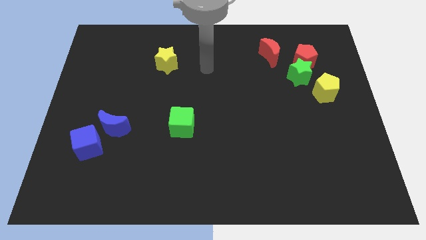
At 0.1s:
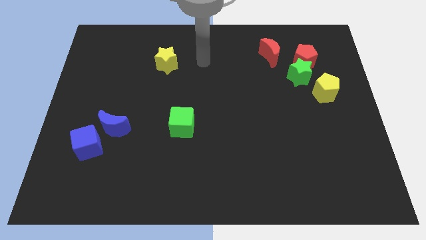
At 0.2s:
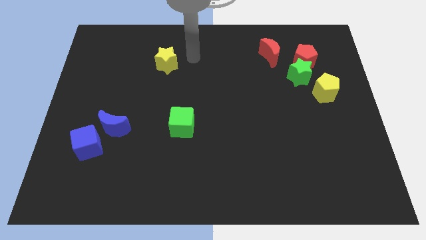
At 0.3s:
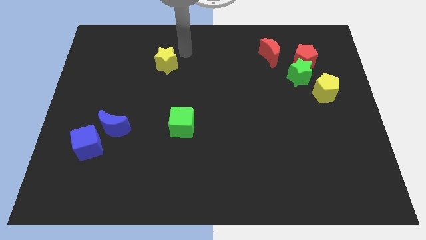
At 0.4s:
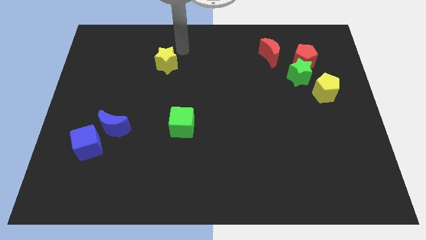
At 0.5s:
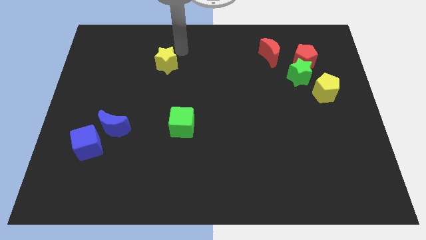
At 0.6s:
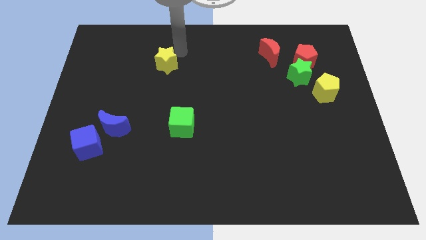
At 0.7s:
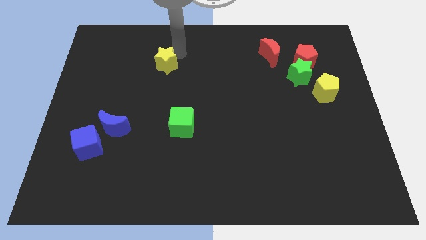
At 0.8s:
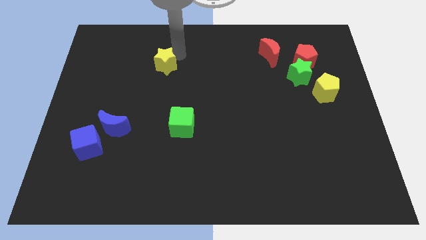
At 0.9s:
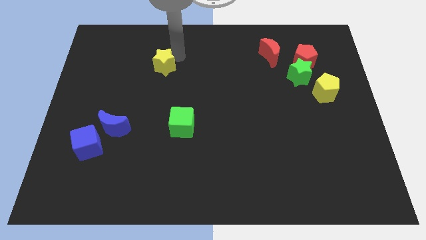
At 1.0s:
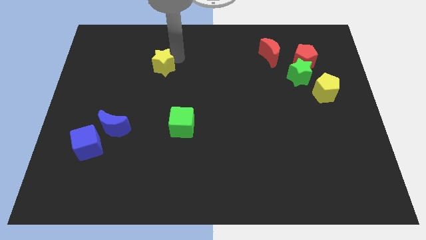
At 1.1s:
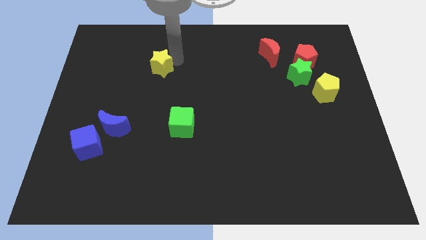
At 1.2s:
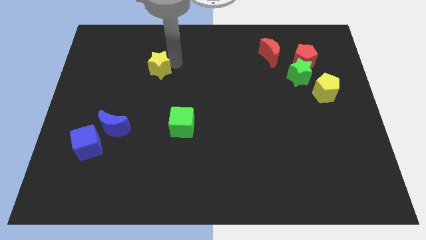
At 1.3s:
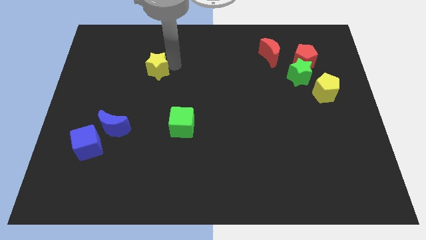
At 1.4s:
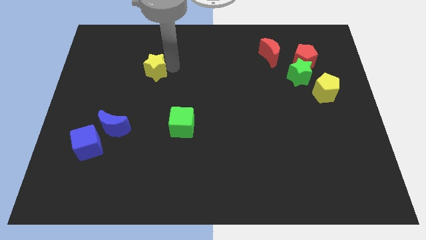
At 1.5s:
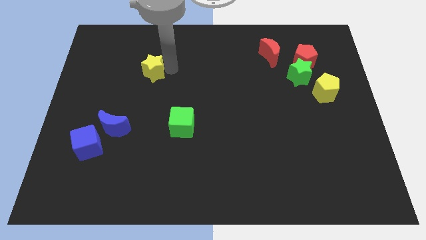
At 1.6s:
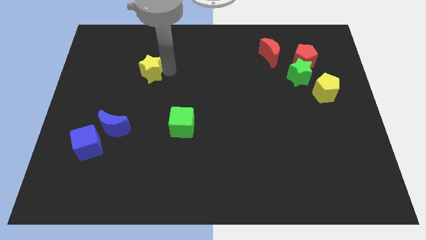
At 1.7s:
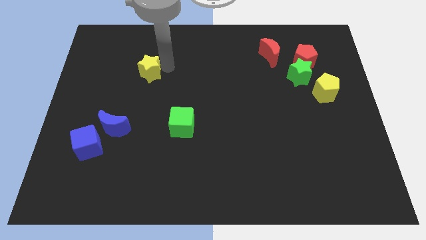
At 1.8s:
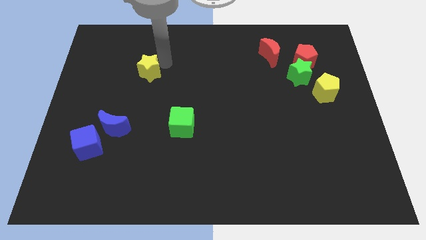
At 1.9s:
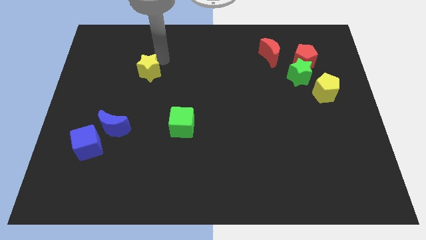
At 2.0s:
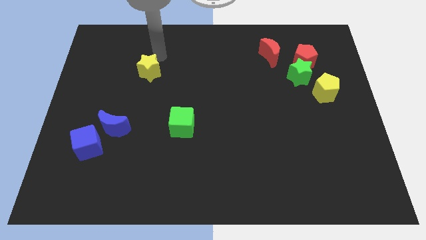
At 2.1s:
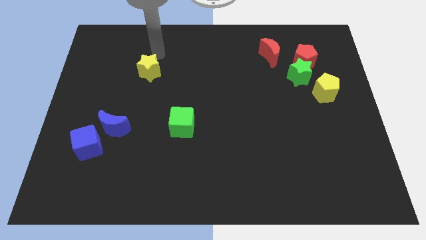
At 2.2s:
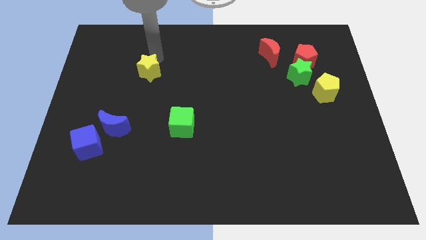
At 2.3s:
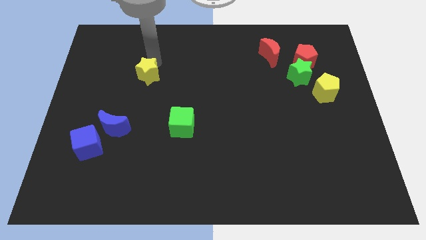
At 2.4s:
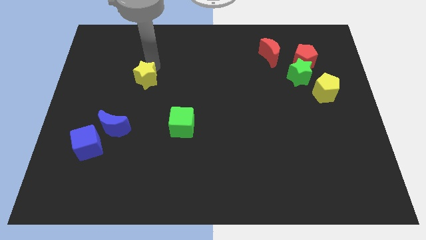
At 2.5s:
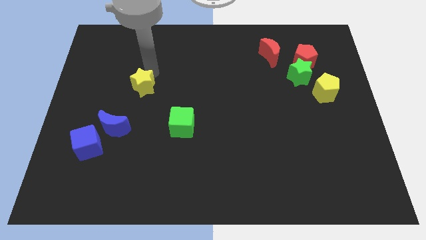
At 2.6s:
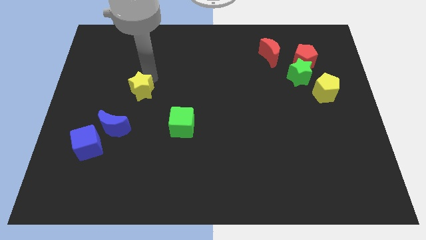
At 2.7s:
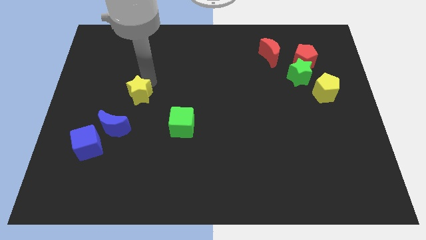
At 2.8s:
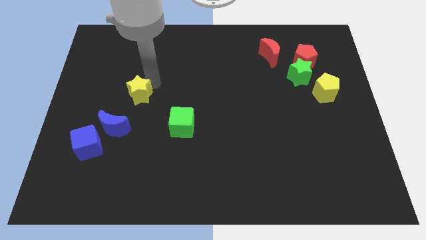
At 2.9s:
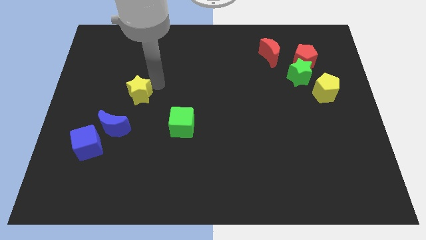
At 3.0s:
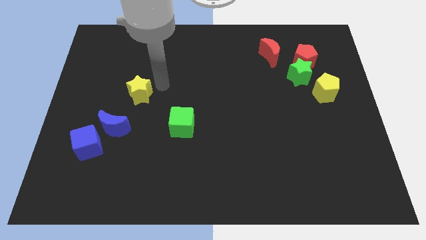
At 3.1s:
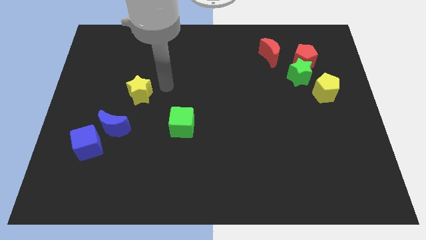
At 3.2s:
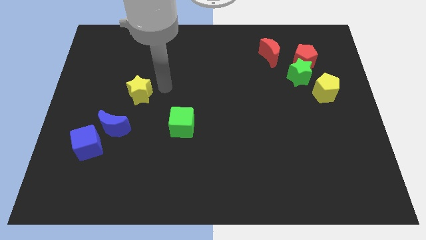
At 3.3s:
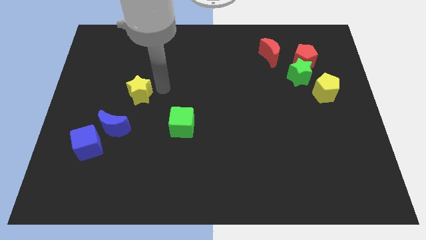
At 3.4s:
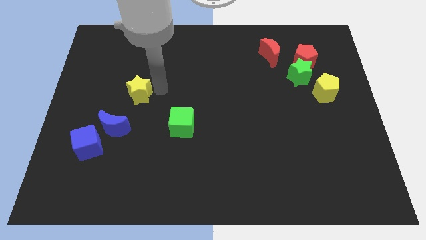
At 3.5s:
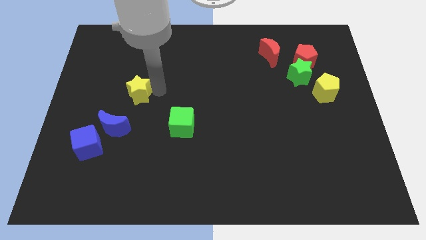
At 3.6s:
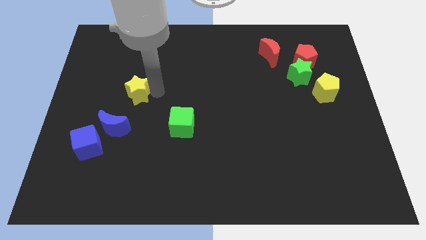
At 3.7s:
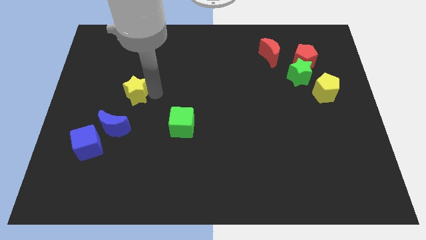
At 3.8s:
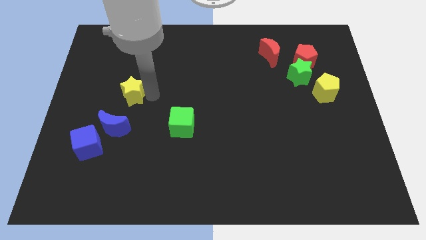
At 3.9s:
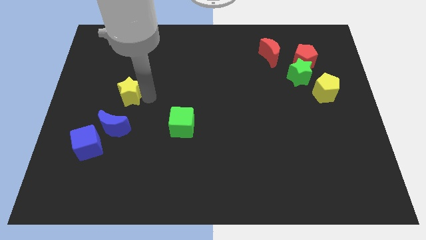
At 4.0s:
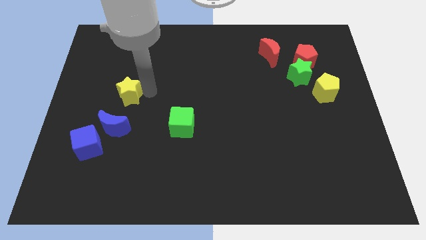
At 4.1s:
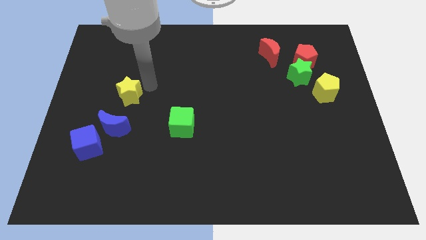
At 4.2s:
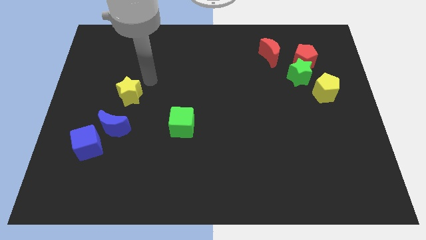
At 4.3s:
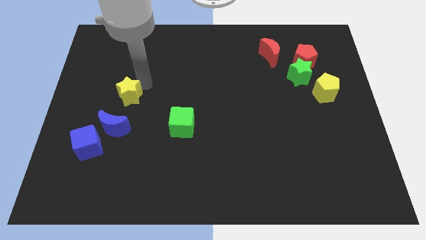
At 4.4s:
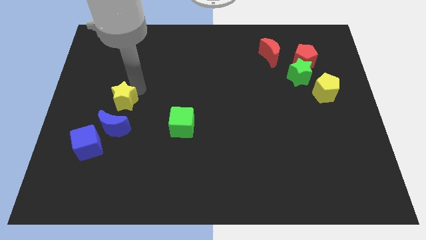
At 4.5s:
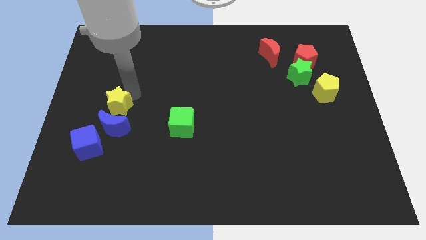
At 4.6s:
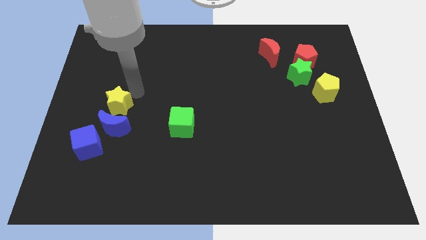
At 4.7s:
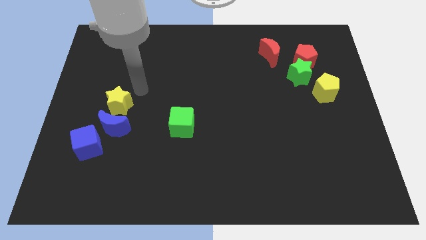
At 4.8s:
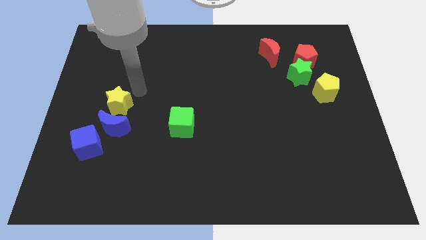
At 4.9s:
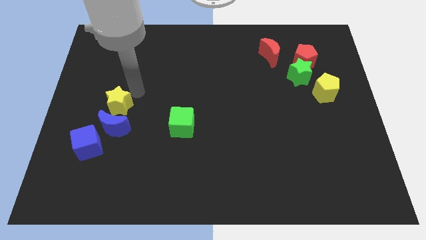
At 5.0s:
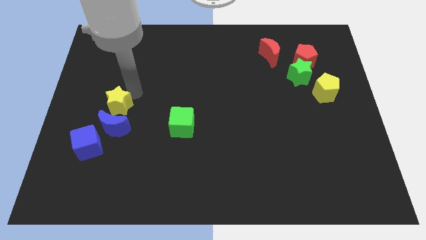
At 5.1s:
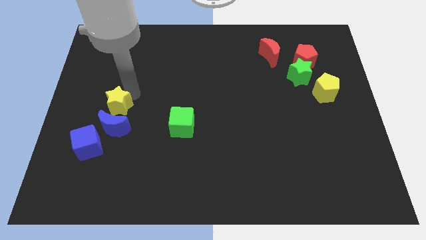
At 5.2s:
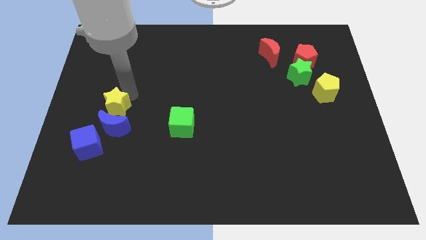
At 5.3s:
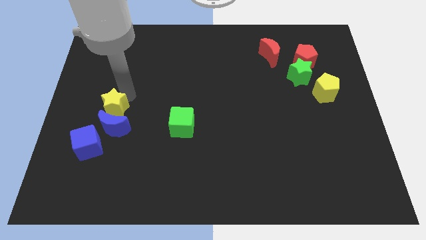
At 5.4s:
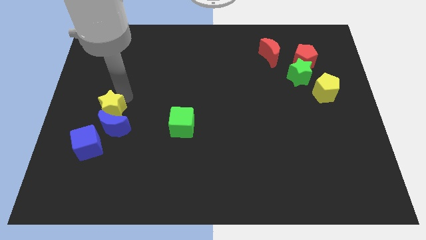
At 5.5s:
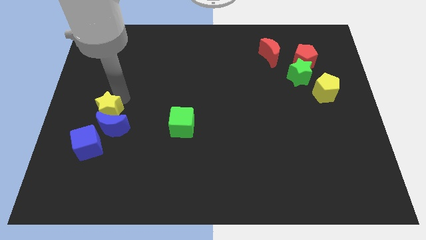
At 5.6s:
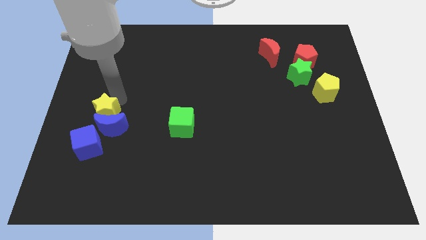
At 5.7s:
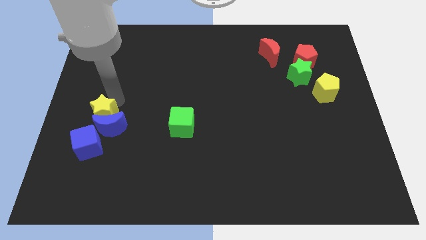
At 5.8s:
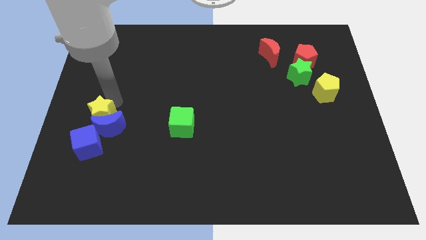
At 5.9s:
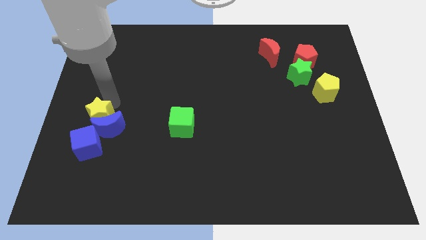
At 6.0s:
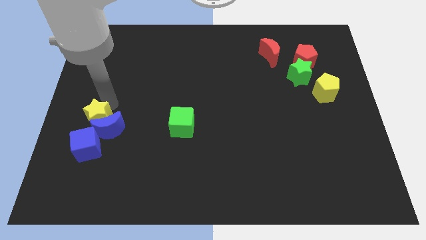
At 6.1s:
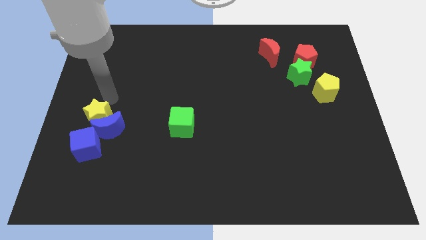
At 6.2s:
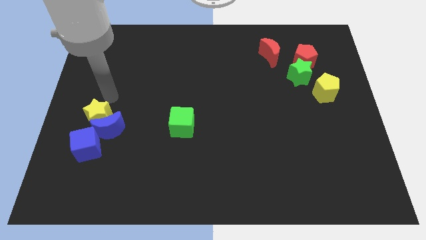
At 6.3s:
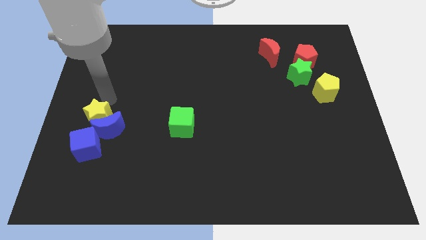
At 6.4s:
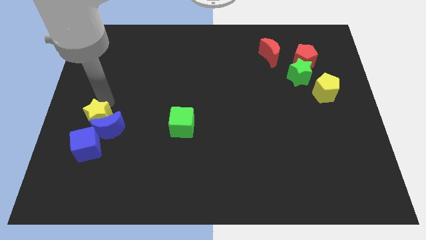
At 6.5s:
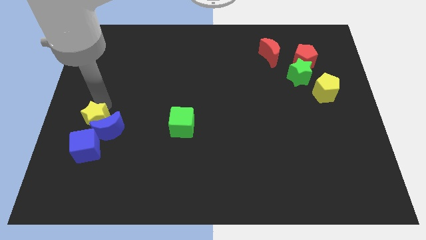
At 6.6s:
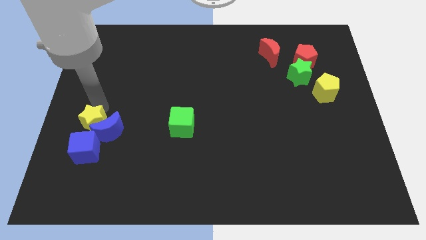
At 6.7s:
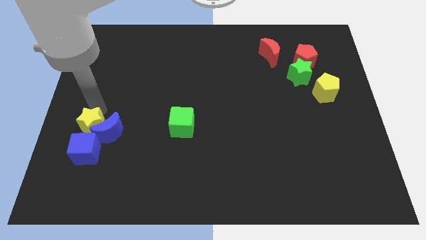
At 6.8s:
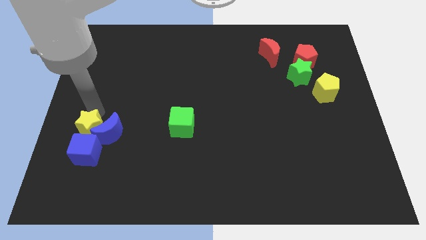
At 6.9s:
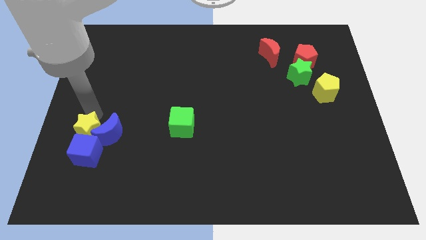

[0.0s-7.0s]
slide the yellow star close to the blue cube
